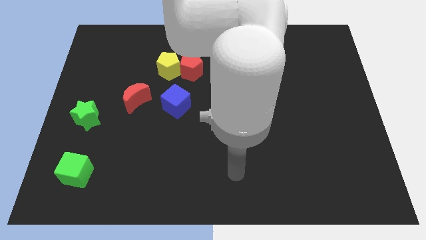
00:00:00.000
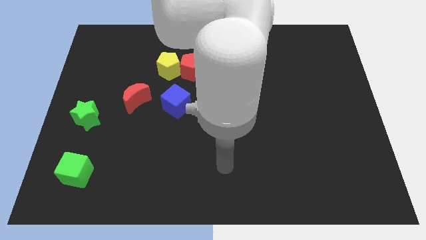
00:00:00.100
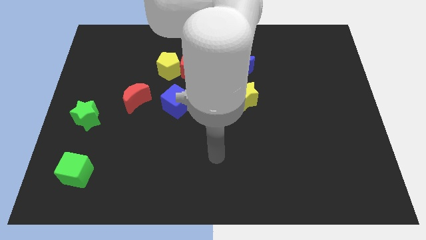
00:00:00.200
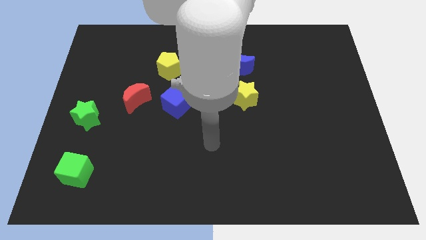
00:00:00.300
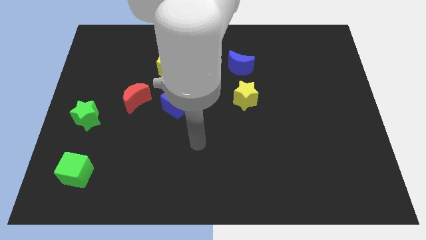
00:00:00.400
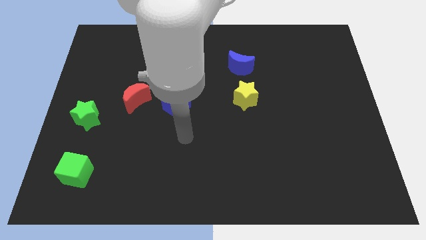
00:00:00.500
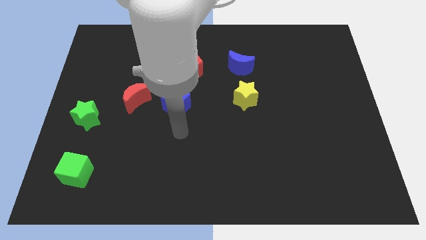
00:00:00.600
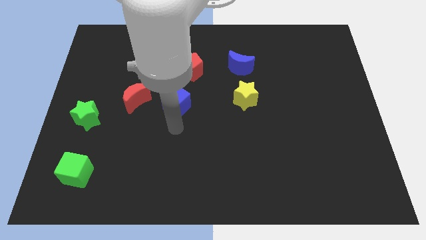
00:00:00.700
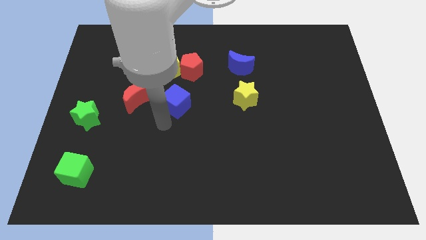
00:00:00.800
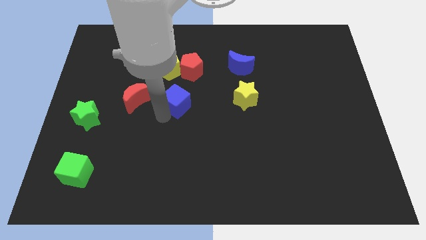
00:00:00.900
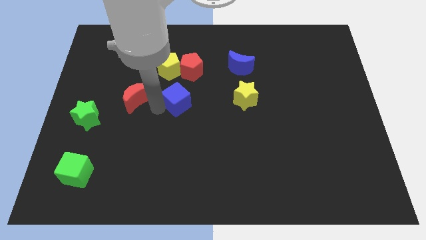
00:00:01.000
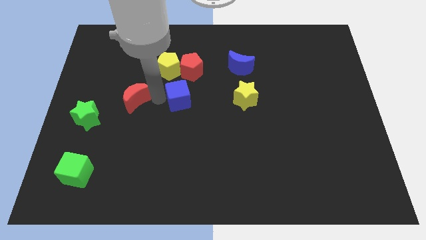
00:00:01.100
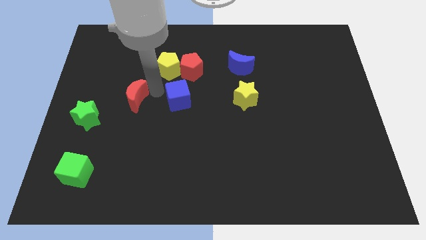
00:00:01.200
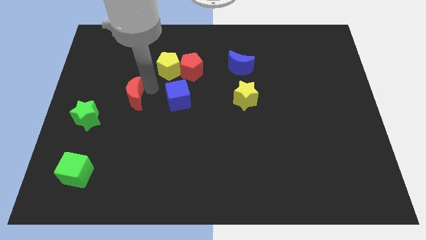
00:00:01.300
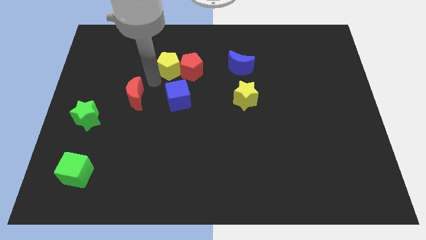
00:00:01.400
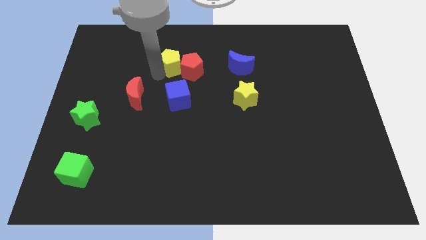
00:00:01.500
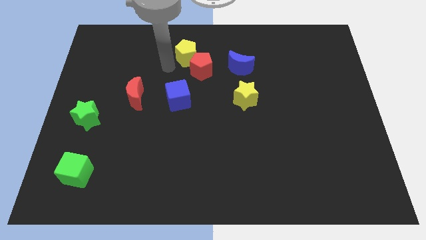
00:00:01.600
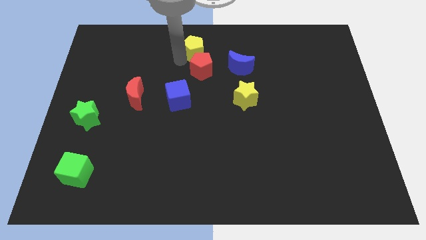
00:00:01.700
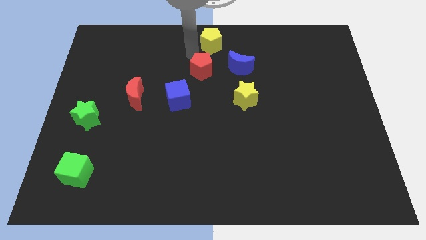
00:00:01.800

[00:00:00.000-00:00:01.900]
move the red pentagon away from the yellow pentagon

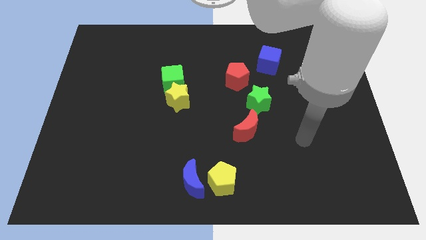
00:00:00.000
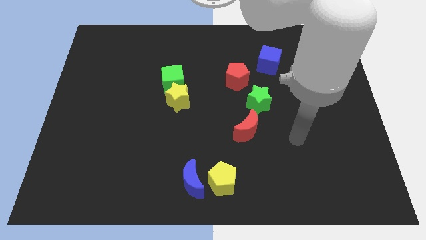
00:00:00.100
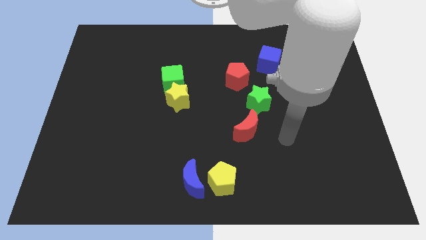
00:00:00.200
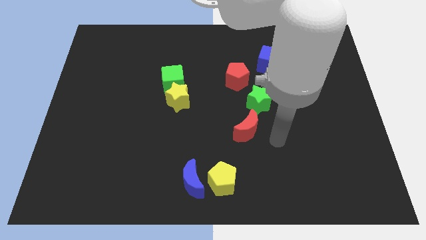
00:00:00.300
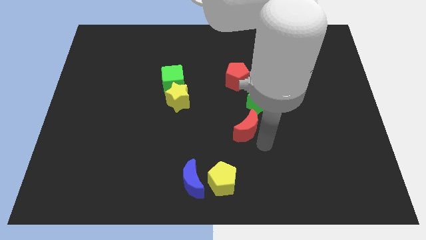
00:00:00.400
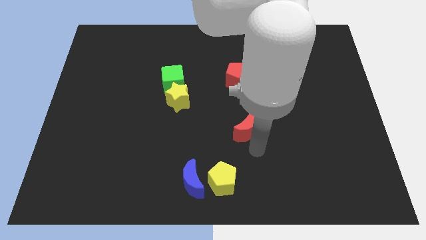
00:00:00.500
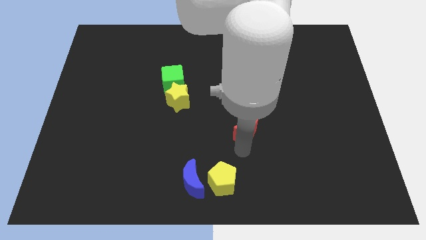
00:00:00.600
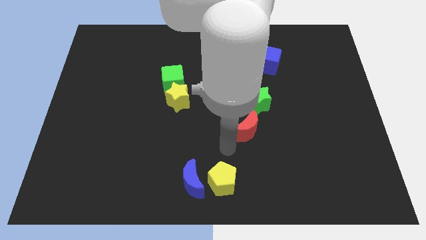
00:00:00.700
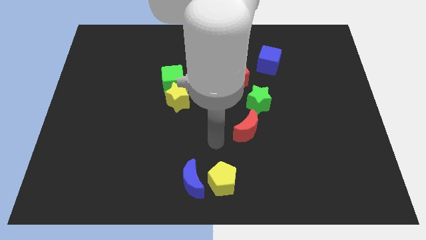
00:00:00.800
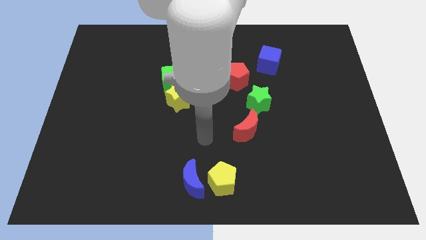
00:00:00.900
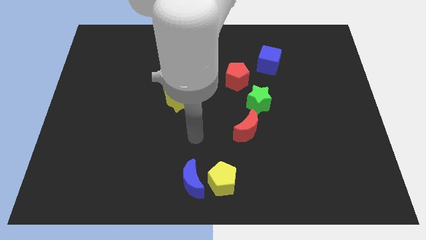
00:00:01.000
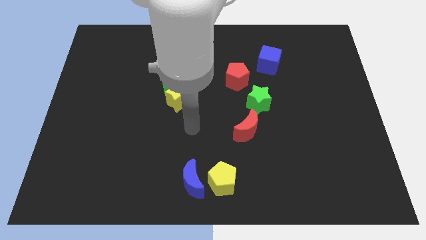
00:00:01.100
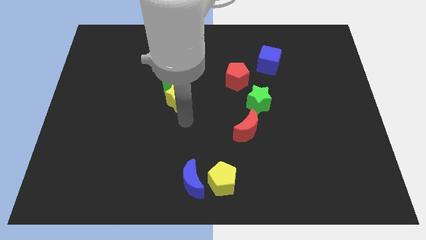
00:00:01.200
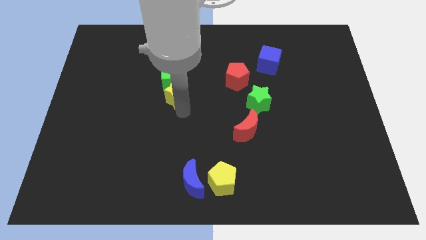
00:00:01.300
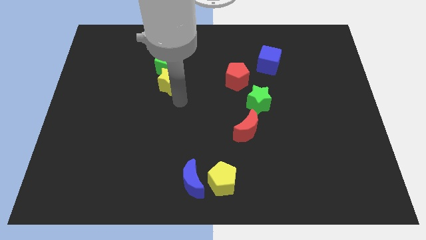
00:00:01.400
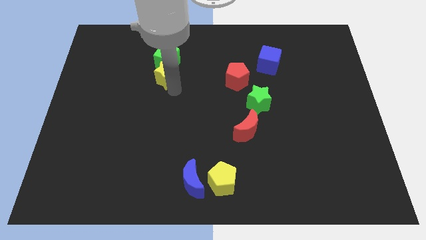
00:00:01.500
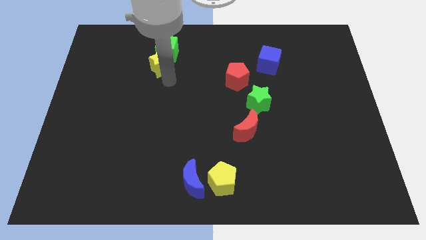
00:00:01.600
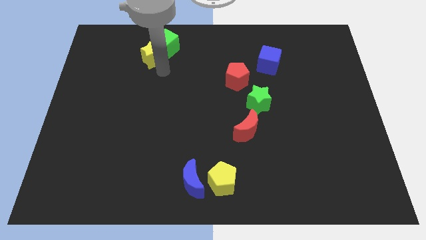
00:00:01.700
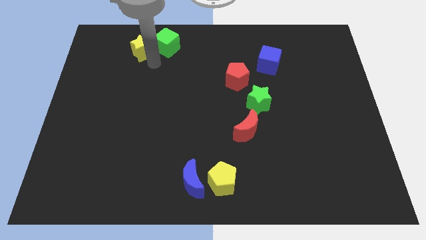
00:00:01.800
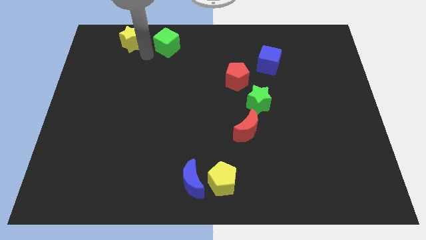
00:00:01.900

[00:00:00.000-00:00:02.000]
separate the green cube from the yellow star

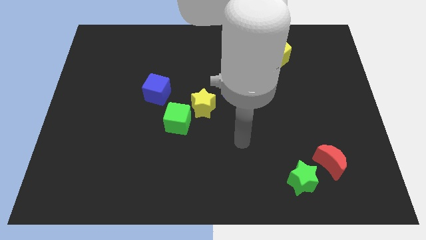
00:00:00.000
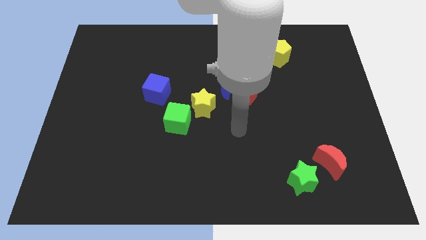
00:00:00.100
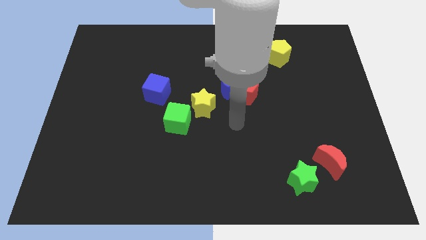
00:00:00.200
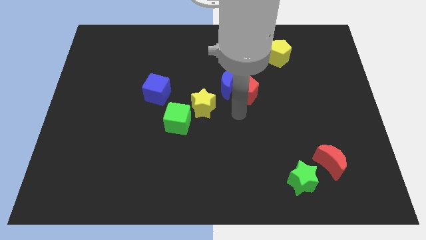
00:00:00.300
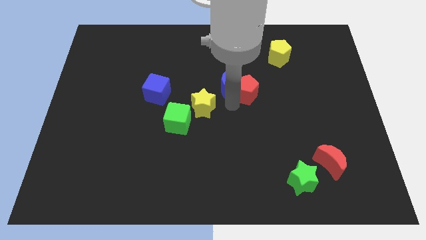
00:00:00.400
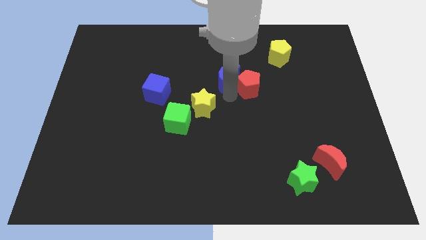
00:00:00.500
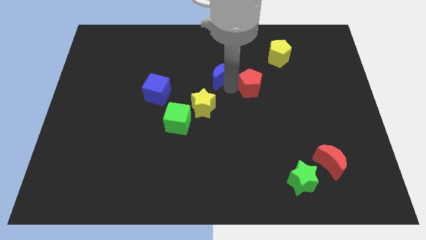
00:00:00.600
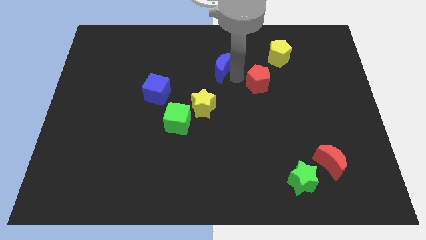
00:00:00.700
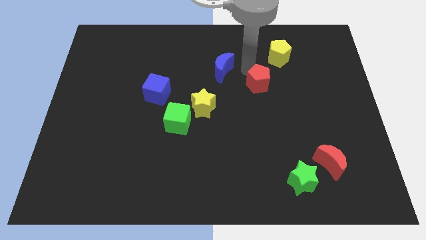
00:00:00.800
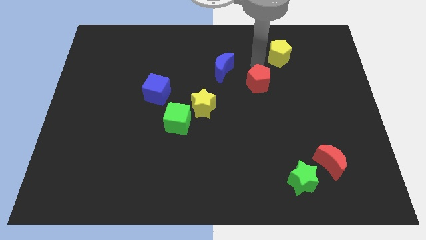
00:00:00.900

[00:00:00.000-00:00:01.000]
pull the red pentagon apart from the blue moon

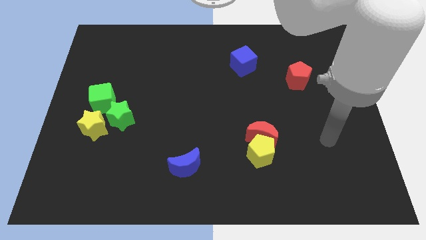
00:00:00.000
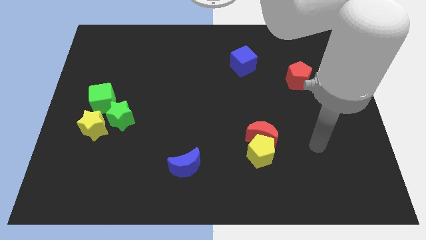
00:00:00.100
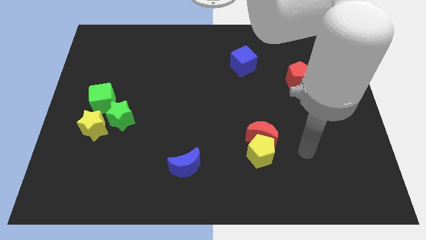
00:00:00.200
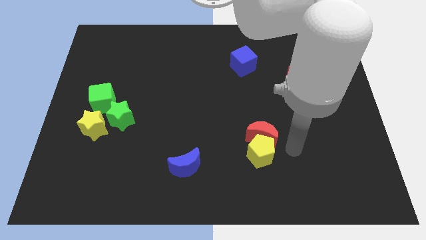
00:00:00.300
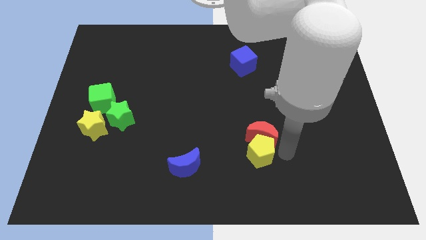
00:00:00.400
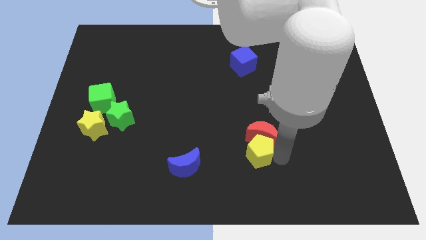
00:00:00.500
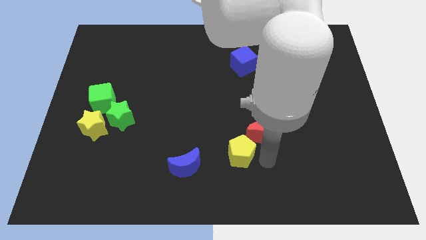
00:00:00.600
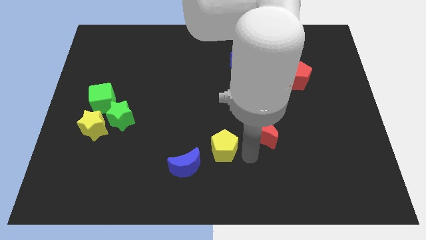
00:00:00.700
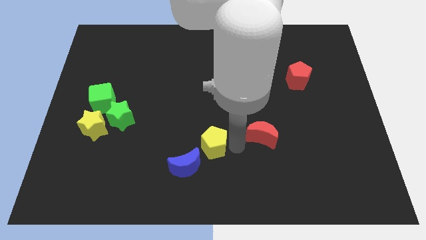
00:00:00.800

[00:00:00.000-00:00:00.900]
pull the red moon apart from the yellow pentagon

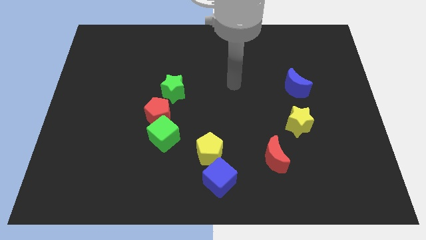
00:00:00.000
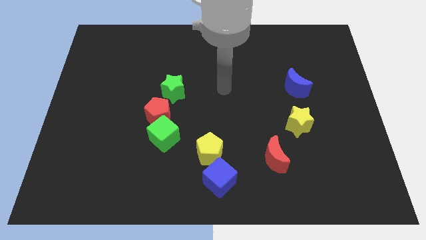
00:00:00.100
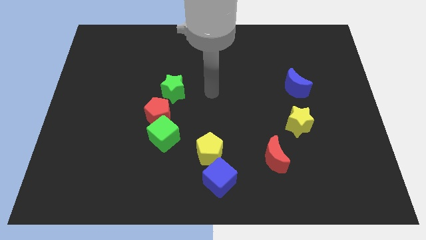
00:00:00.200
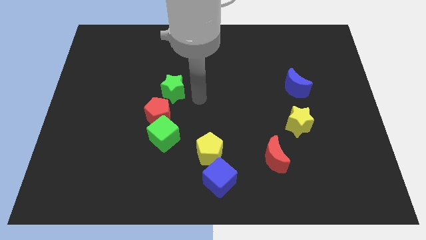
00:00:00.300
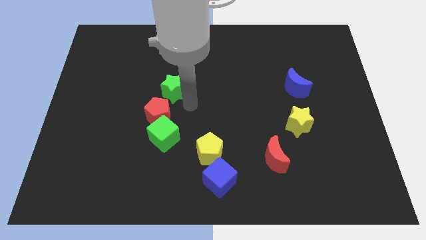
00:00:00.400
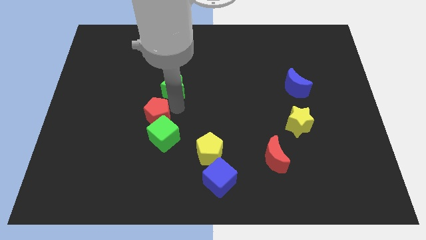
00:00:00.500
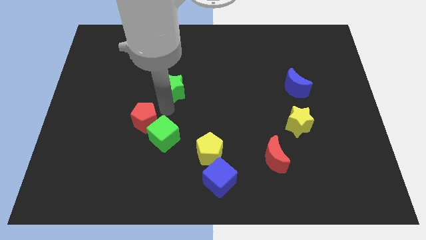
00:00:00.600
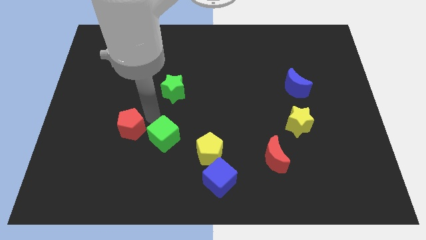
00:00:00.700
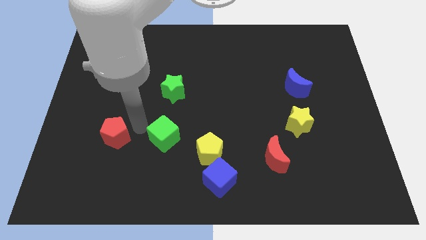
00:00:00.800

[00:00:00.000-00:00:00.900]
pull the green cube apart from the red pentagon

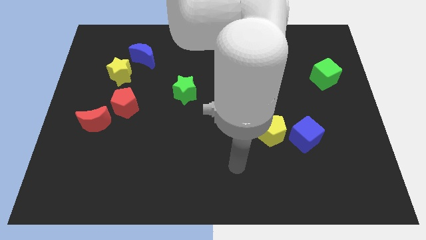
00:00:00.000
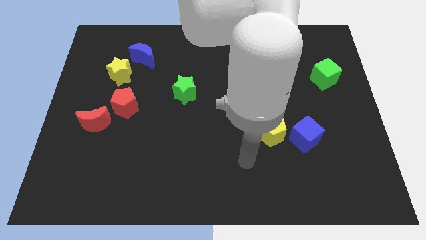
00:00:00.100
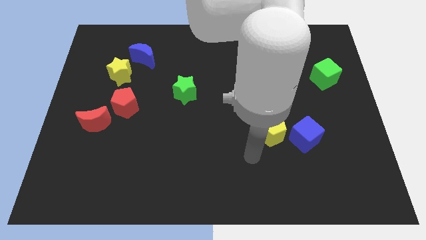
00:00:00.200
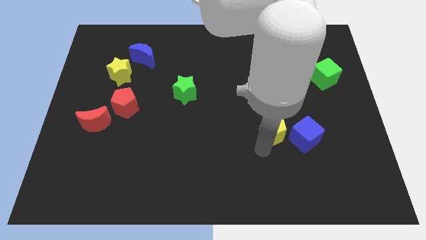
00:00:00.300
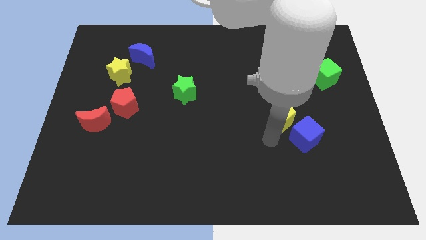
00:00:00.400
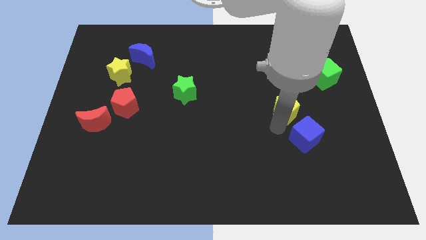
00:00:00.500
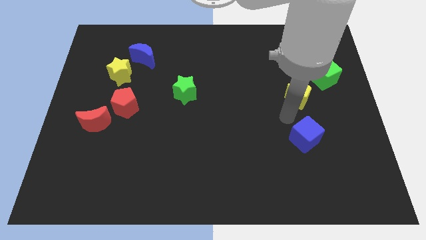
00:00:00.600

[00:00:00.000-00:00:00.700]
separate the blue cube from the yellow pentagon

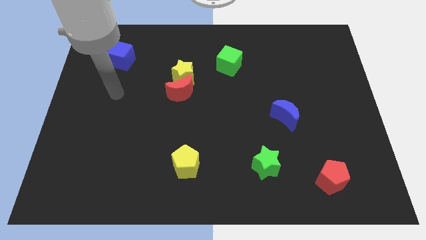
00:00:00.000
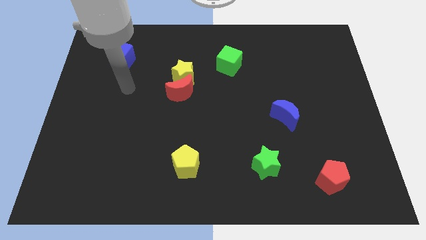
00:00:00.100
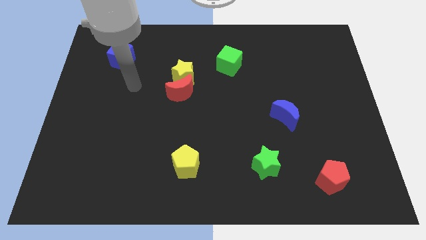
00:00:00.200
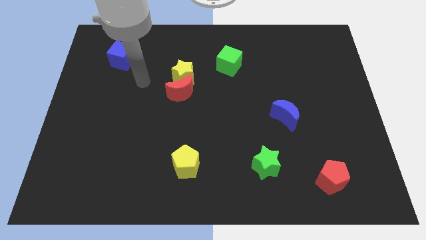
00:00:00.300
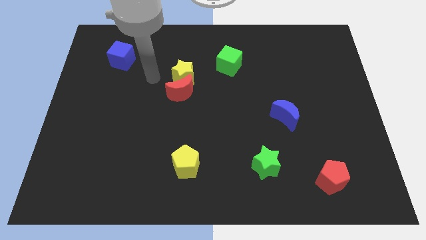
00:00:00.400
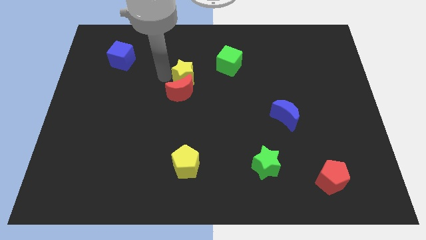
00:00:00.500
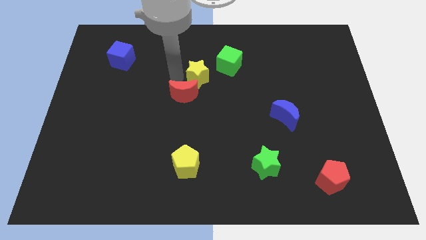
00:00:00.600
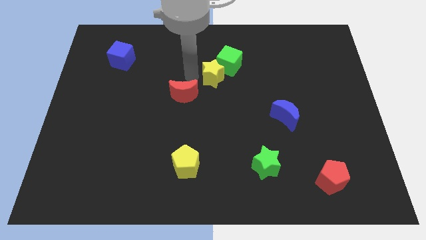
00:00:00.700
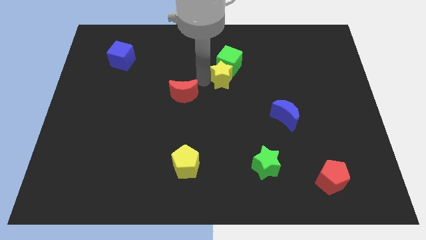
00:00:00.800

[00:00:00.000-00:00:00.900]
pull the red moon apart from the yellow star

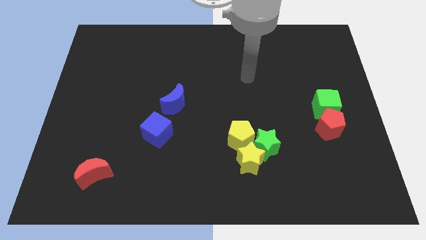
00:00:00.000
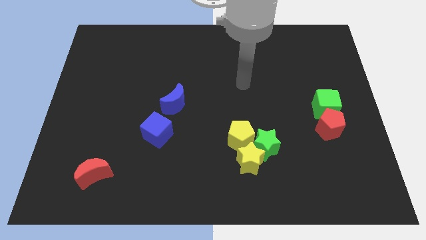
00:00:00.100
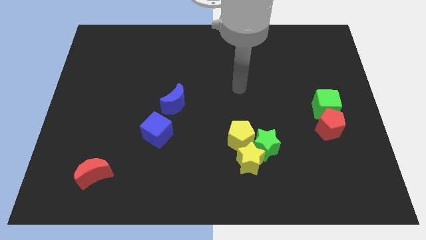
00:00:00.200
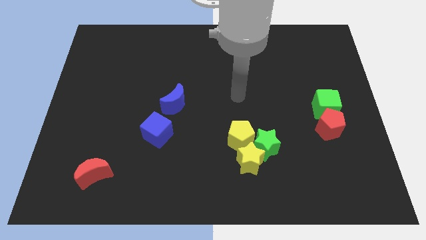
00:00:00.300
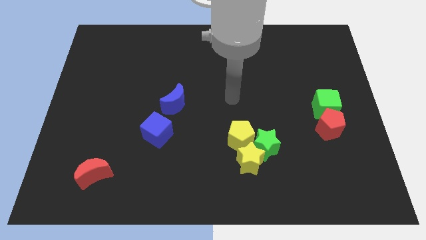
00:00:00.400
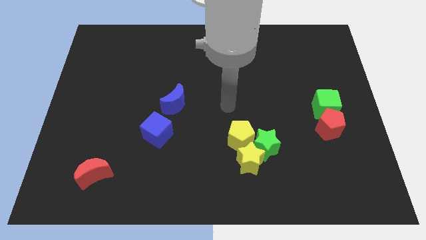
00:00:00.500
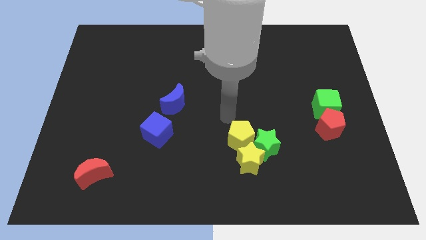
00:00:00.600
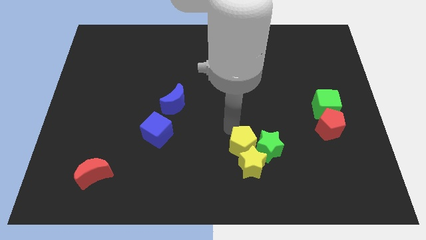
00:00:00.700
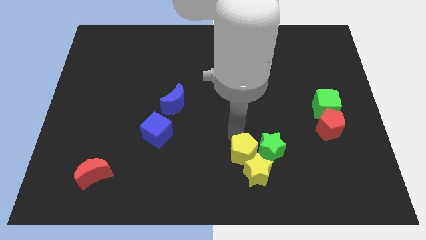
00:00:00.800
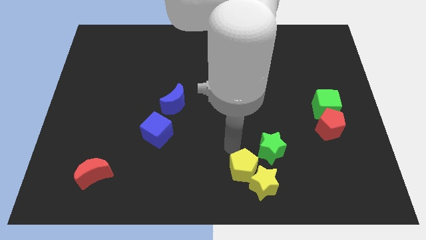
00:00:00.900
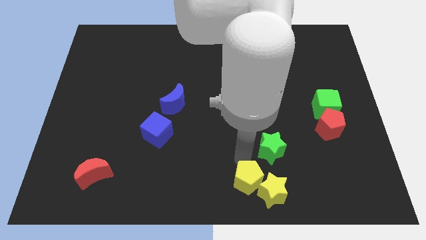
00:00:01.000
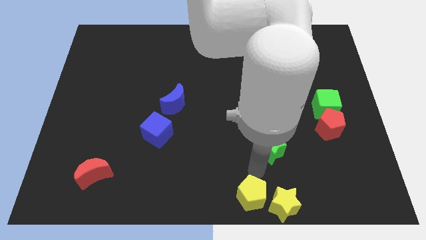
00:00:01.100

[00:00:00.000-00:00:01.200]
move the green star away from the yellow star and yellow pentagon
